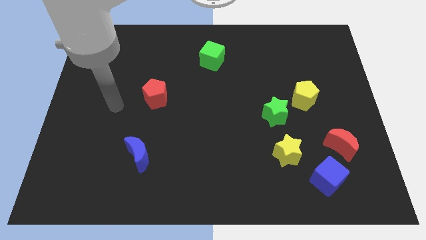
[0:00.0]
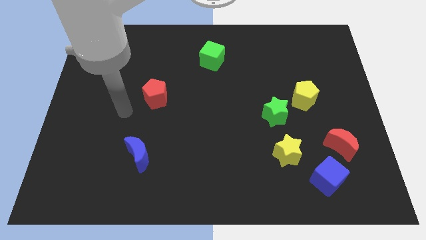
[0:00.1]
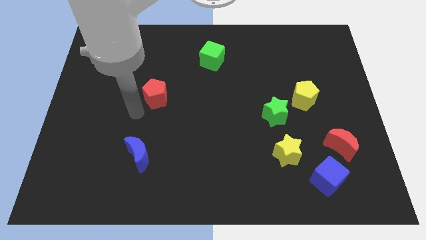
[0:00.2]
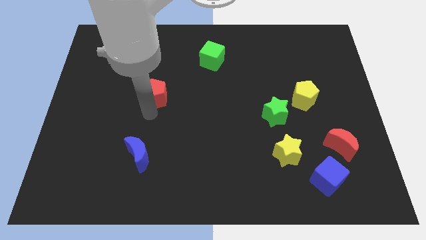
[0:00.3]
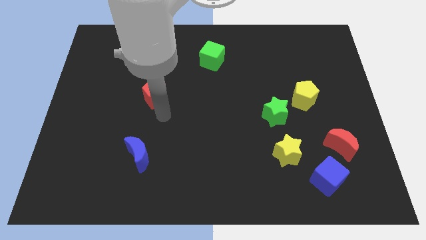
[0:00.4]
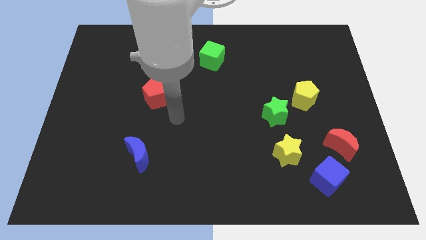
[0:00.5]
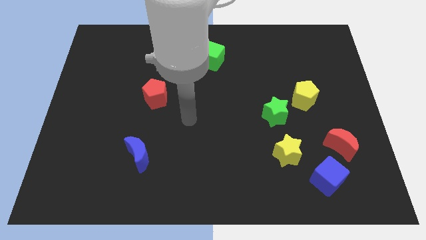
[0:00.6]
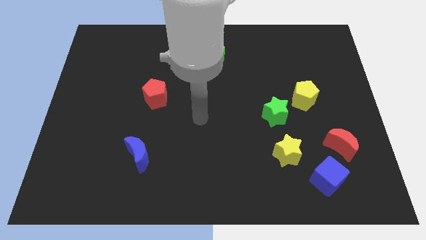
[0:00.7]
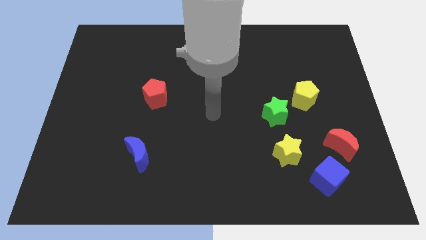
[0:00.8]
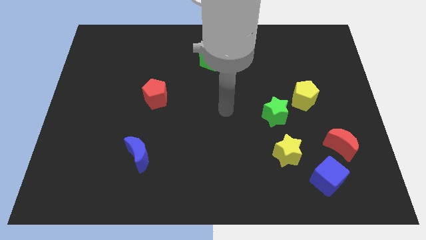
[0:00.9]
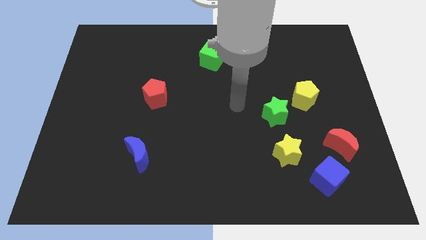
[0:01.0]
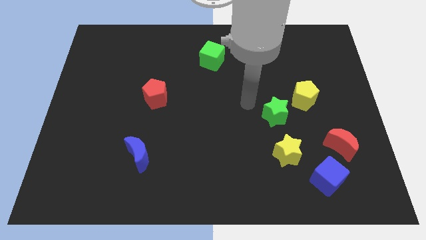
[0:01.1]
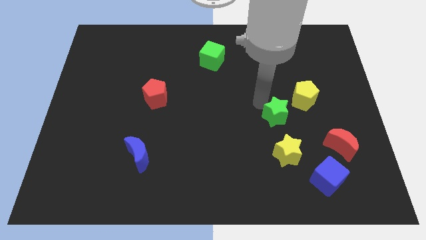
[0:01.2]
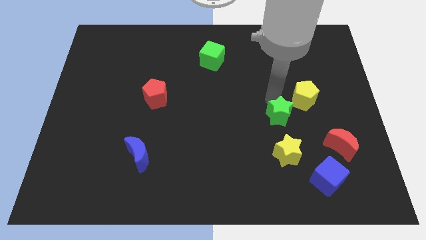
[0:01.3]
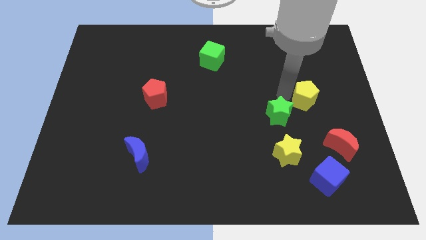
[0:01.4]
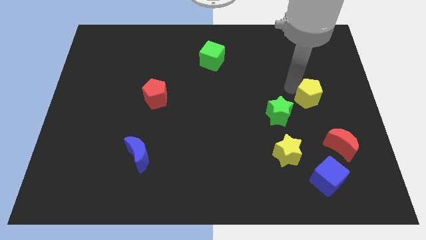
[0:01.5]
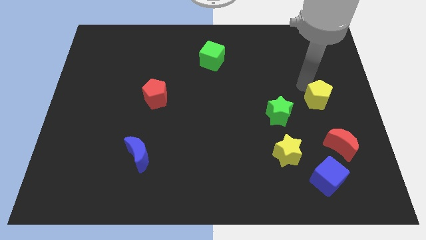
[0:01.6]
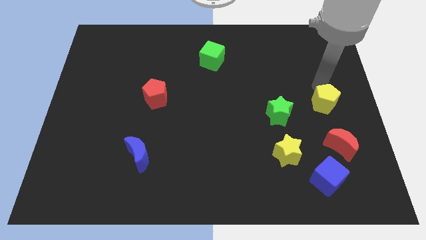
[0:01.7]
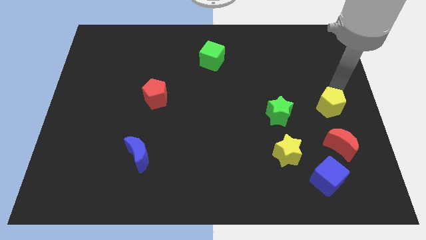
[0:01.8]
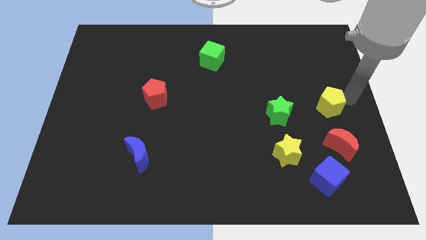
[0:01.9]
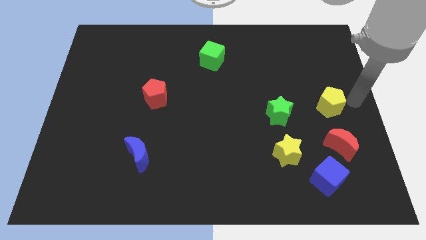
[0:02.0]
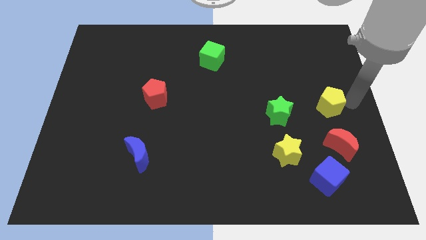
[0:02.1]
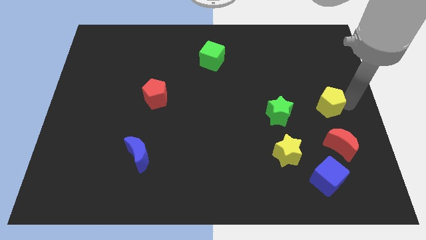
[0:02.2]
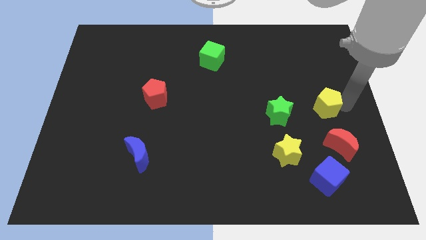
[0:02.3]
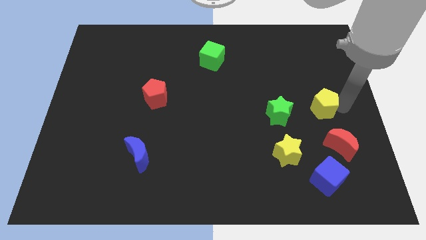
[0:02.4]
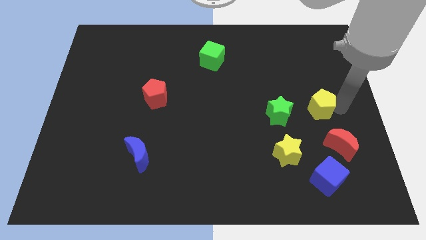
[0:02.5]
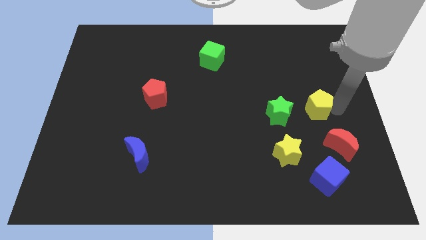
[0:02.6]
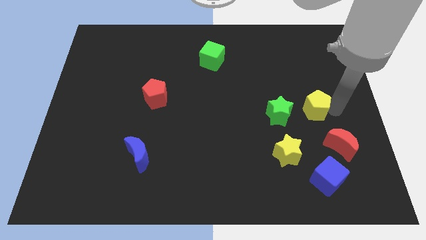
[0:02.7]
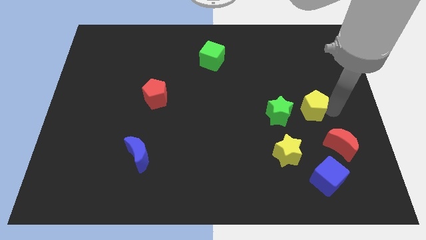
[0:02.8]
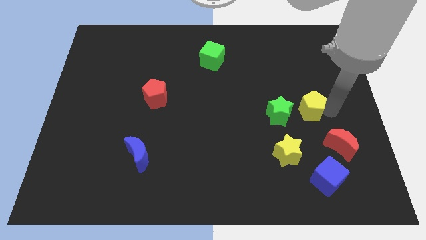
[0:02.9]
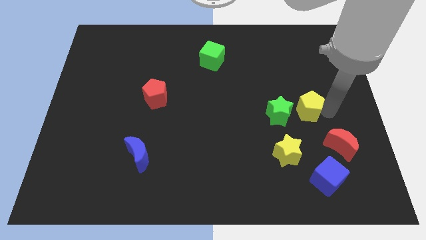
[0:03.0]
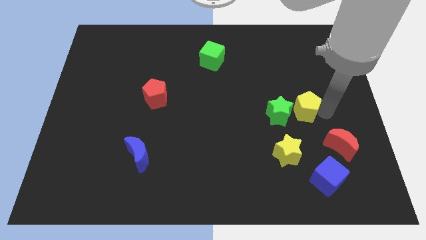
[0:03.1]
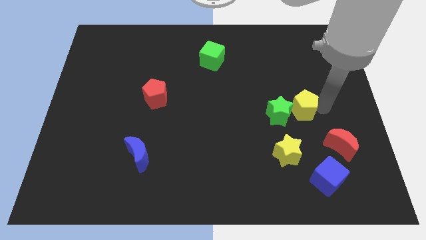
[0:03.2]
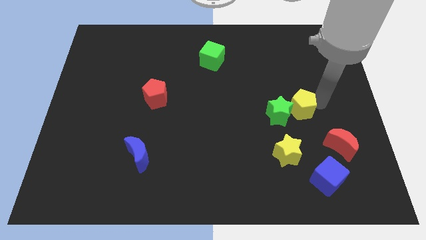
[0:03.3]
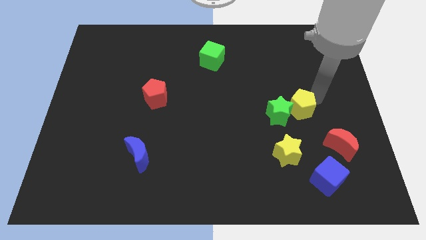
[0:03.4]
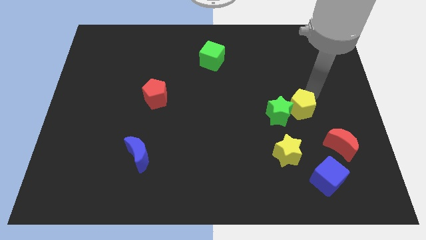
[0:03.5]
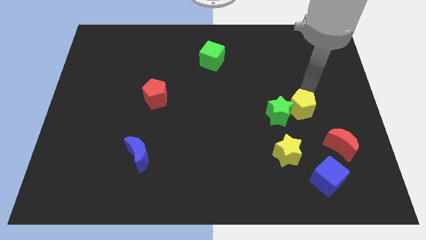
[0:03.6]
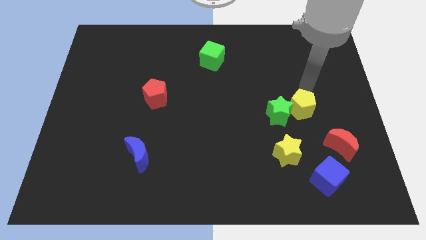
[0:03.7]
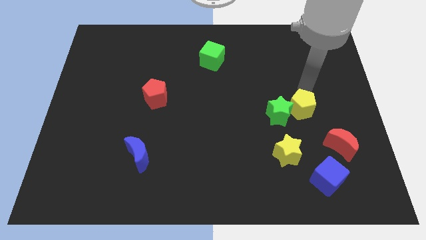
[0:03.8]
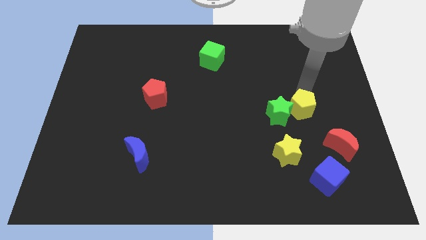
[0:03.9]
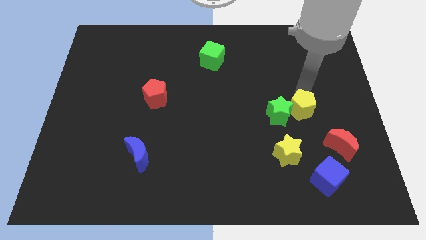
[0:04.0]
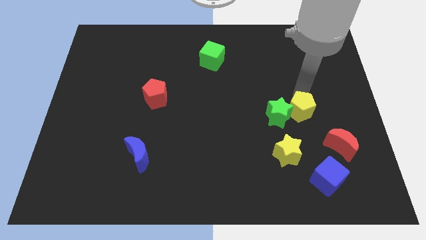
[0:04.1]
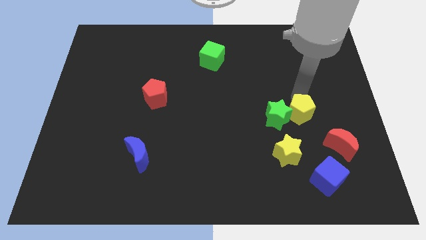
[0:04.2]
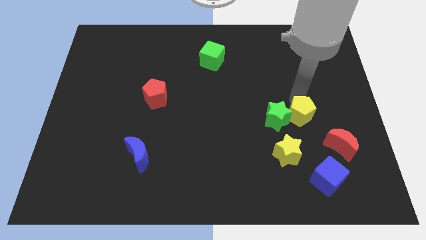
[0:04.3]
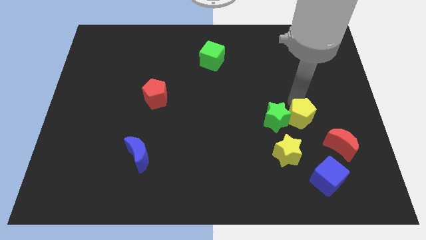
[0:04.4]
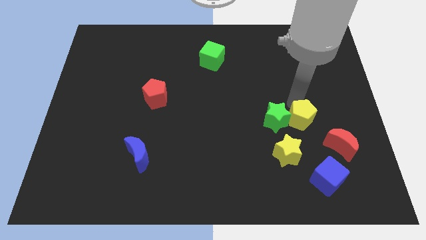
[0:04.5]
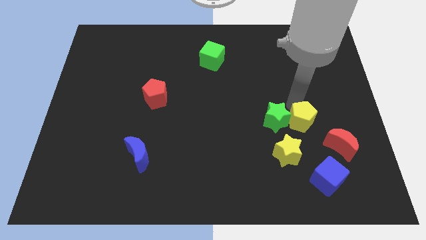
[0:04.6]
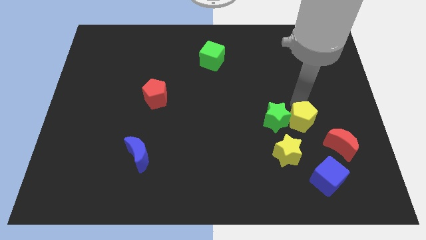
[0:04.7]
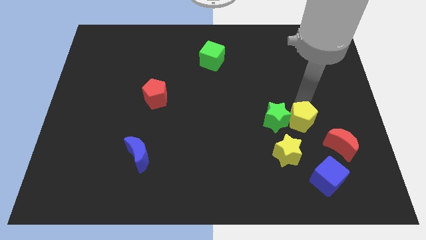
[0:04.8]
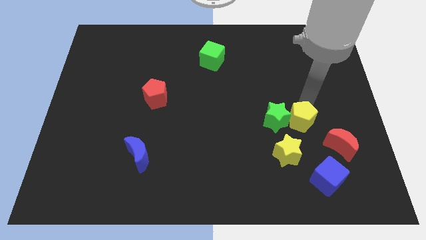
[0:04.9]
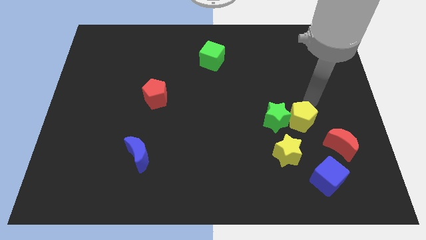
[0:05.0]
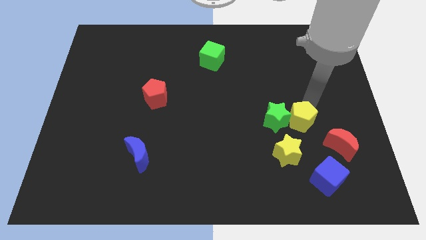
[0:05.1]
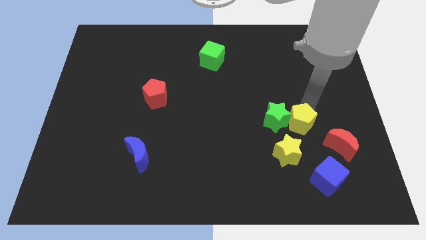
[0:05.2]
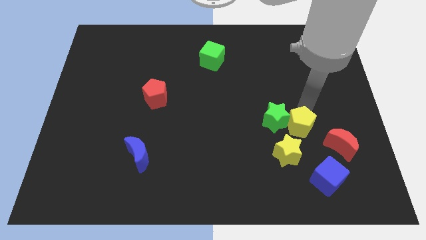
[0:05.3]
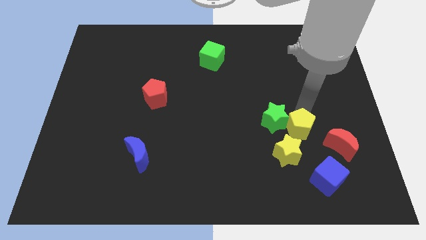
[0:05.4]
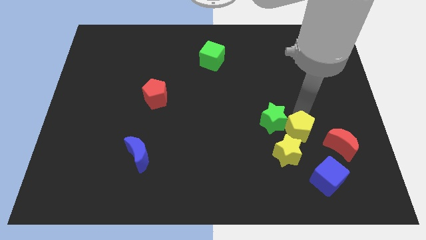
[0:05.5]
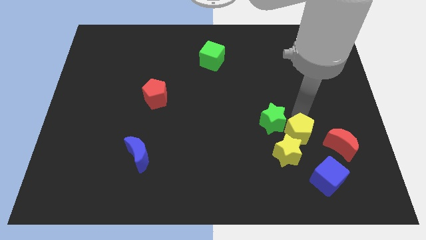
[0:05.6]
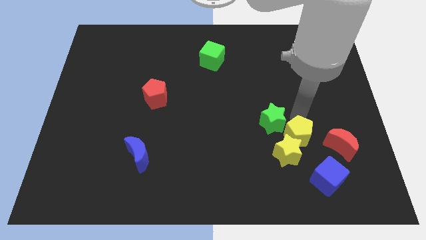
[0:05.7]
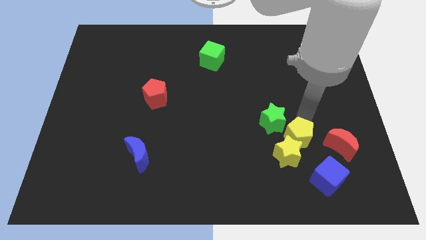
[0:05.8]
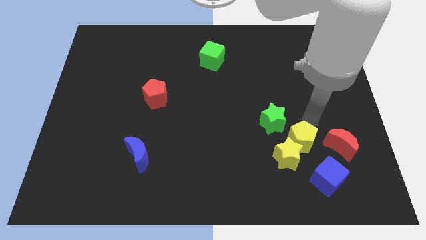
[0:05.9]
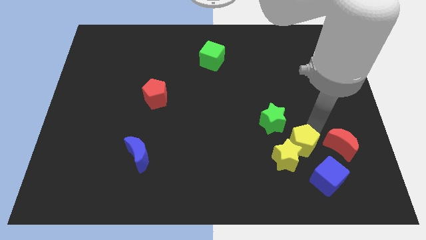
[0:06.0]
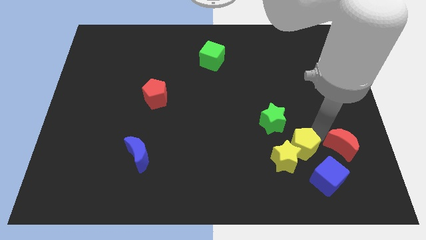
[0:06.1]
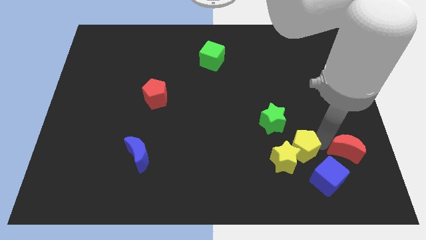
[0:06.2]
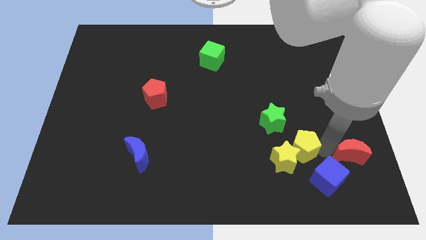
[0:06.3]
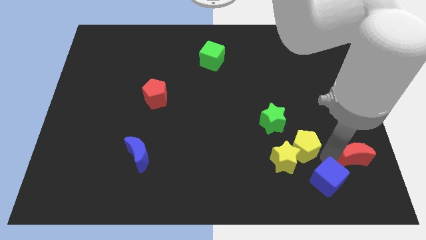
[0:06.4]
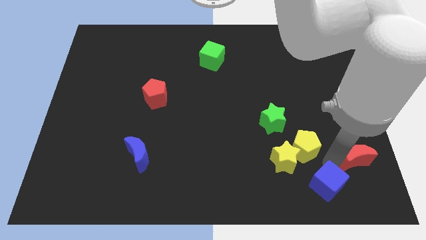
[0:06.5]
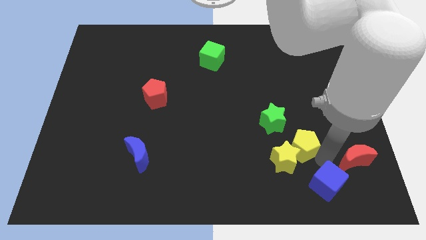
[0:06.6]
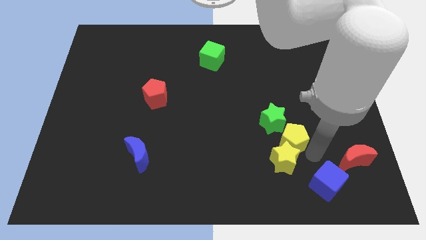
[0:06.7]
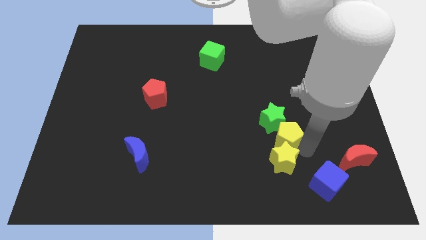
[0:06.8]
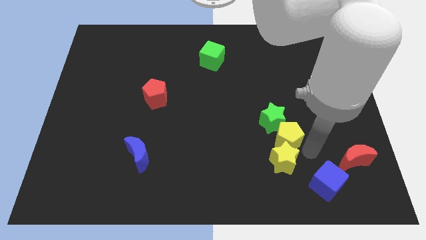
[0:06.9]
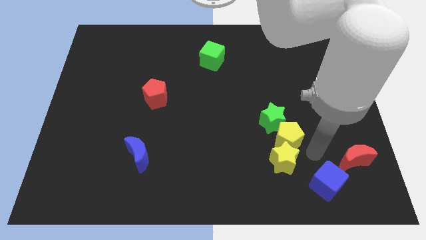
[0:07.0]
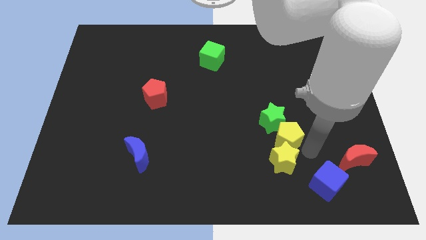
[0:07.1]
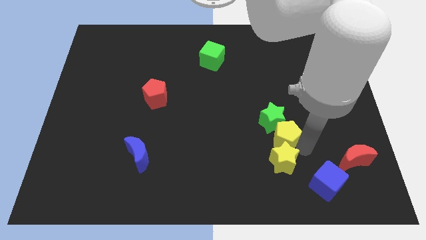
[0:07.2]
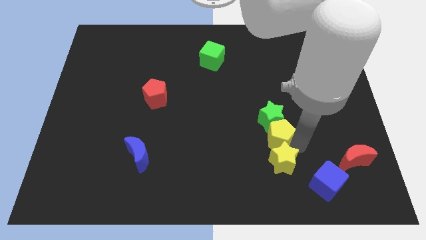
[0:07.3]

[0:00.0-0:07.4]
push the yellow pentagon diagonally down and to the left of the green star
